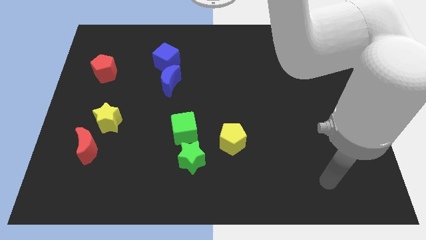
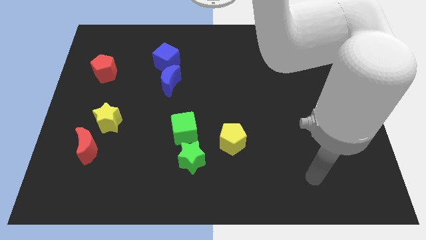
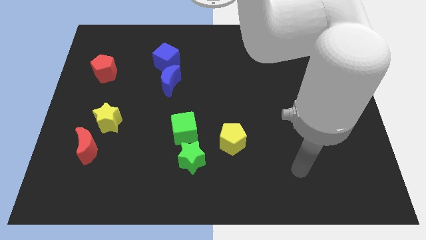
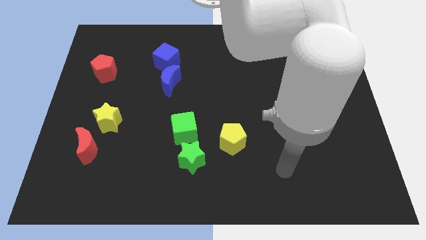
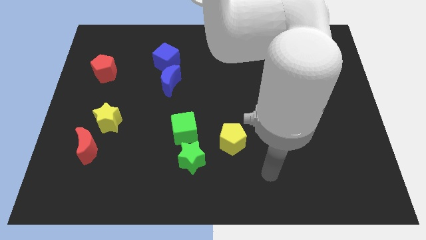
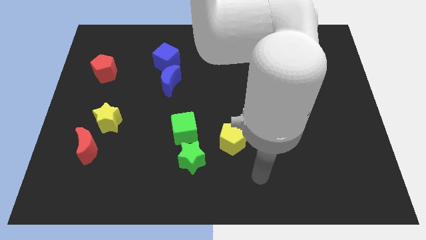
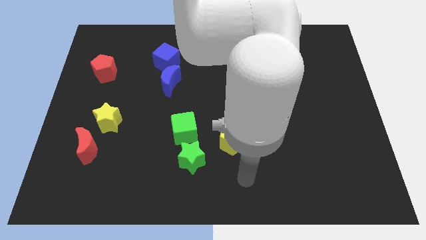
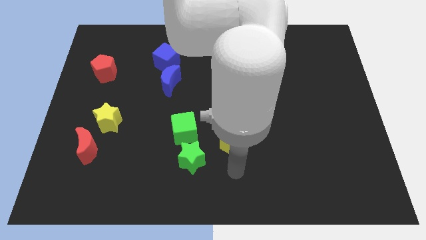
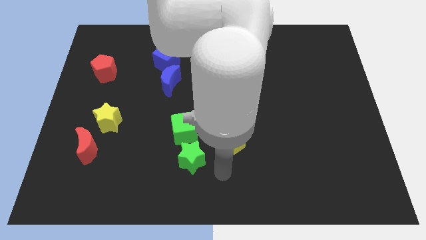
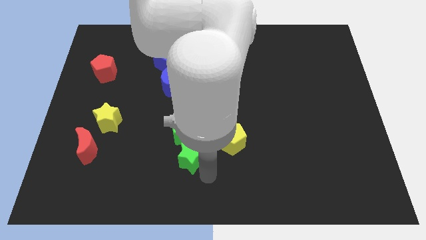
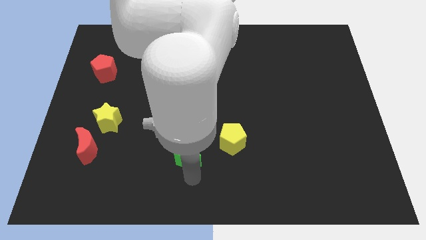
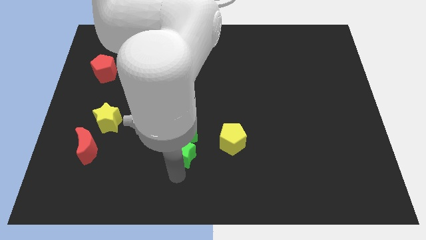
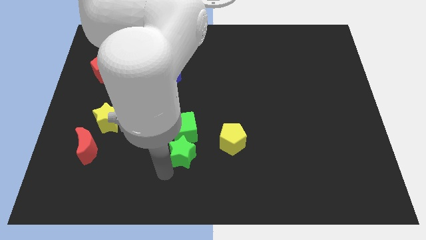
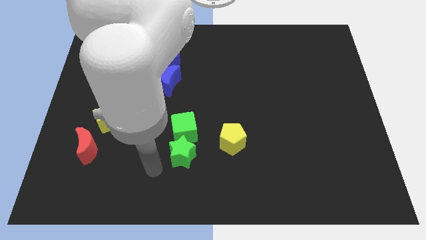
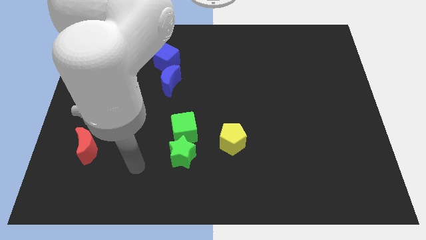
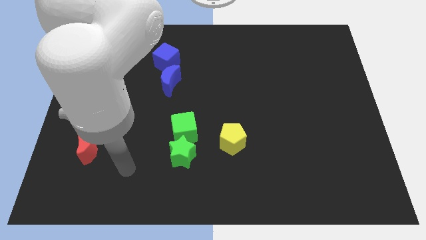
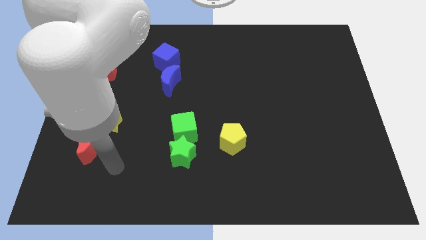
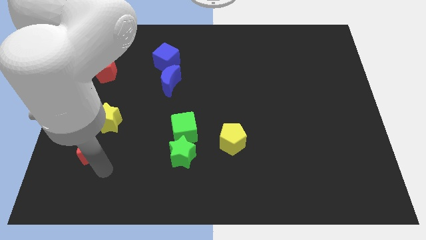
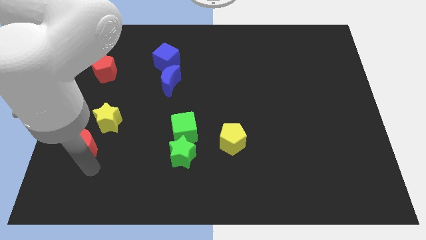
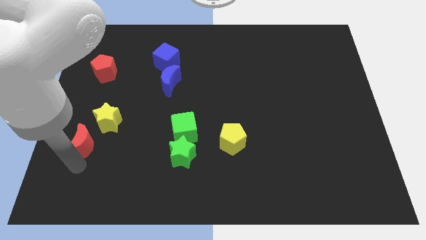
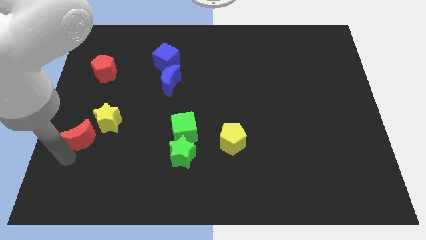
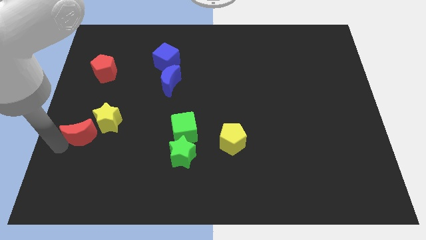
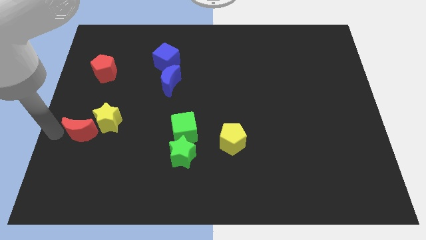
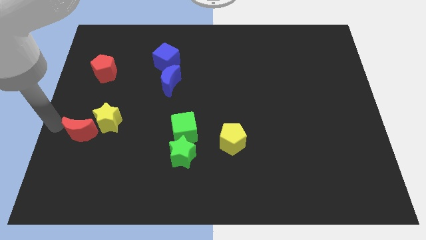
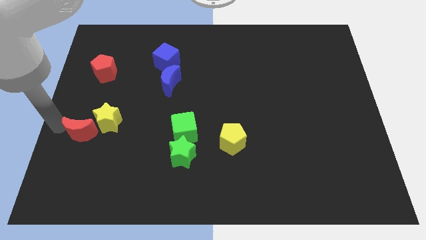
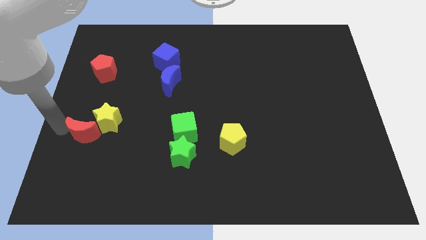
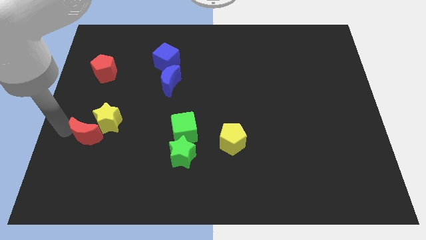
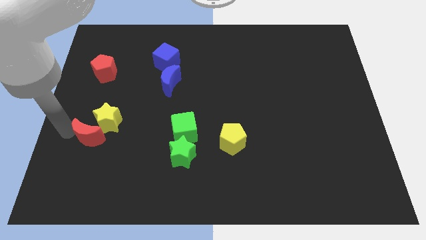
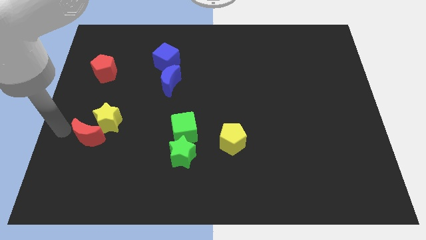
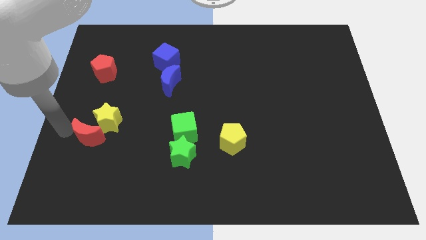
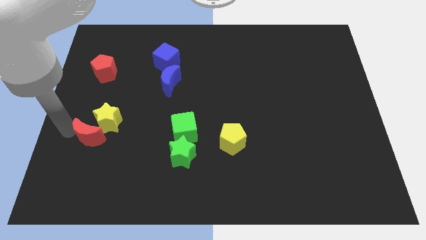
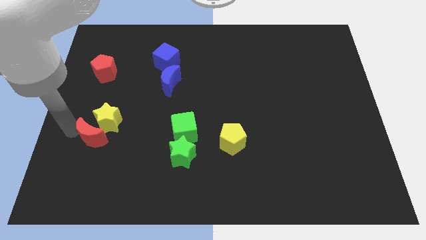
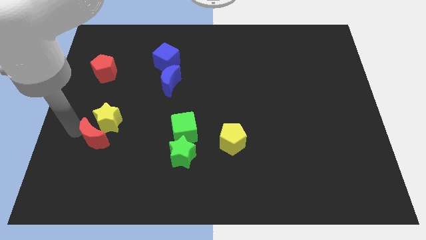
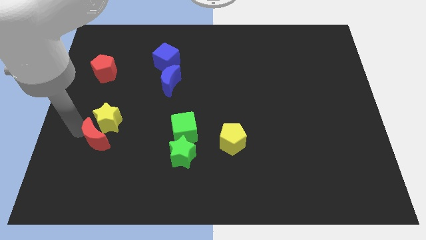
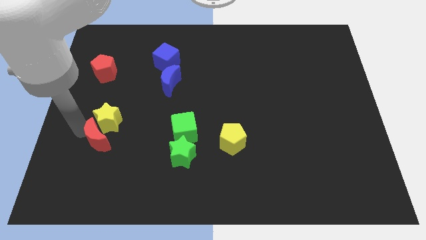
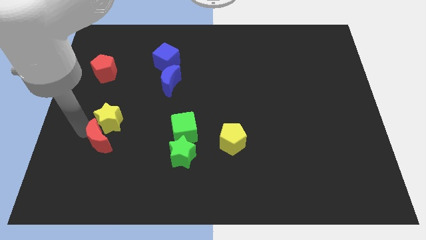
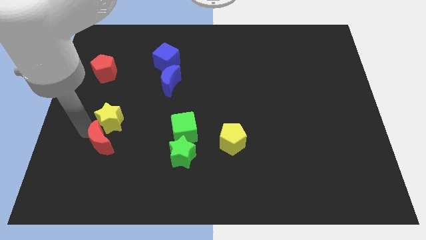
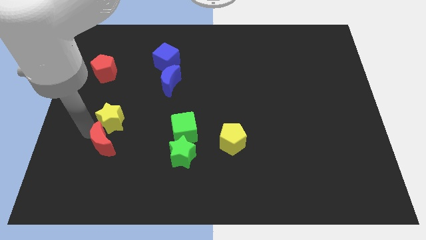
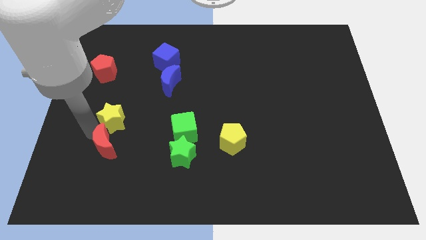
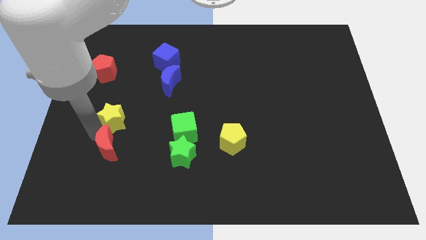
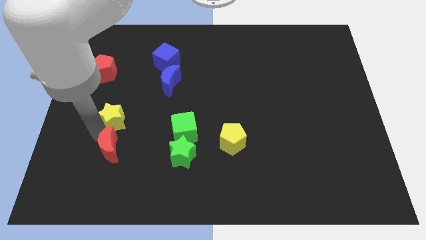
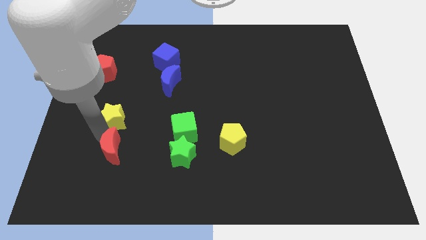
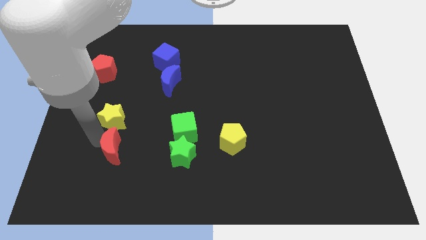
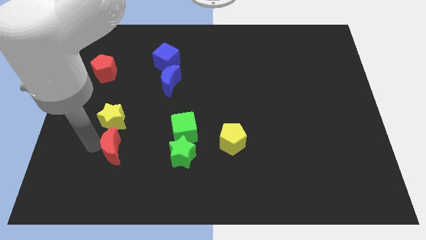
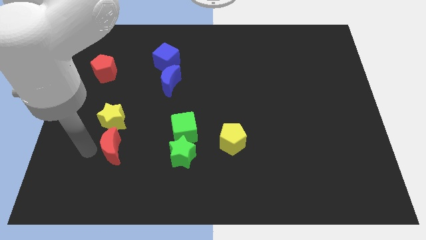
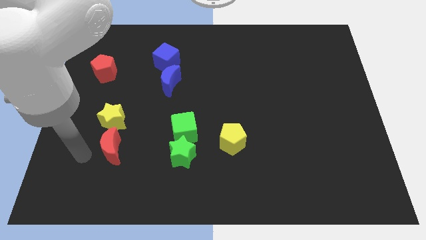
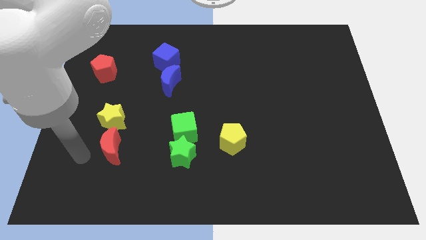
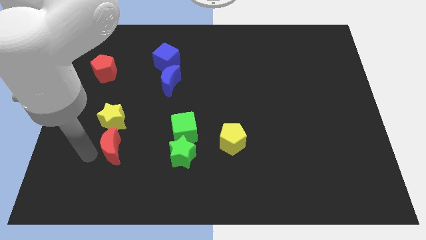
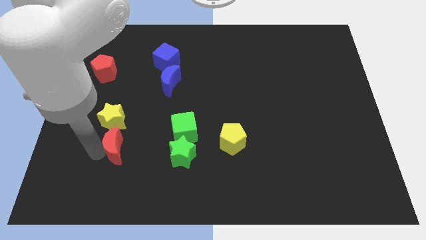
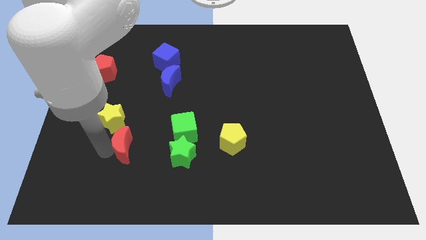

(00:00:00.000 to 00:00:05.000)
slide the red moon to the right somewhat

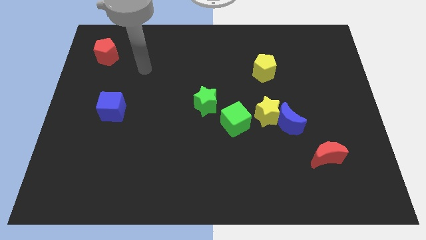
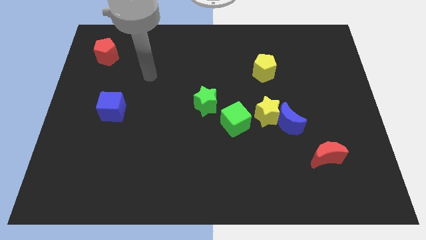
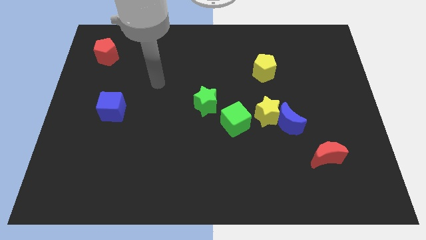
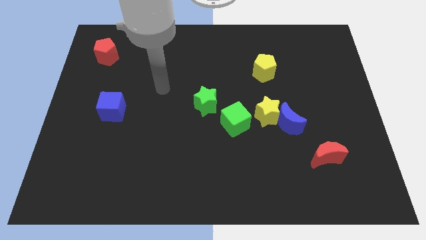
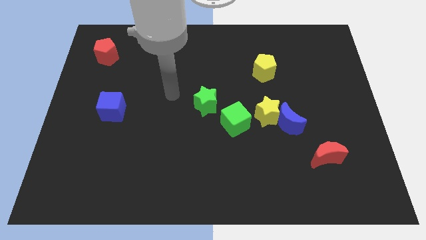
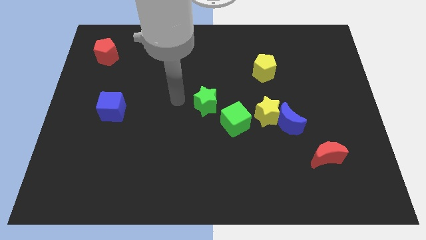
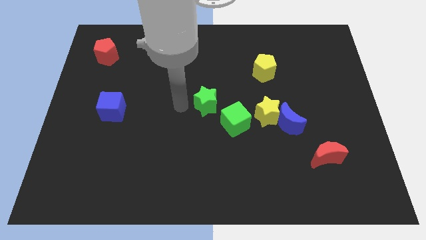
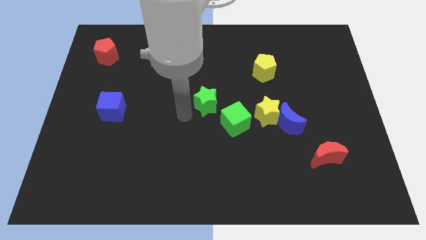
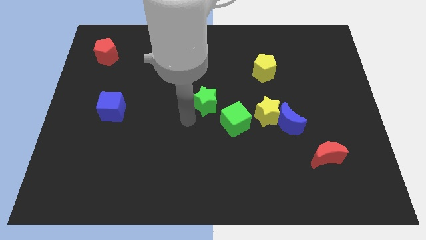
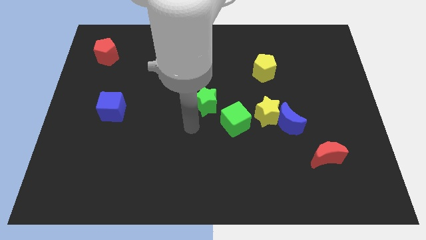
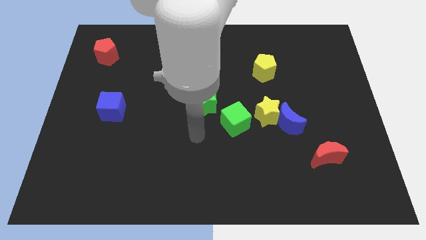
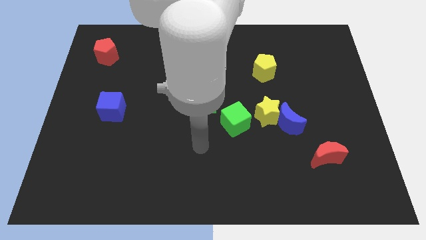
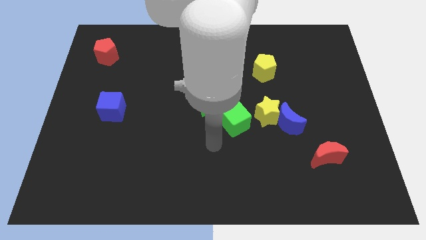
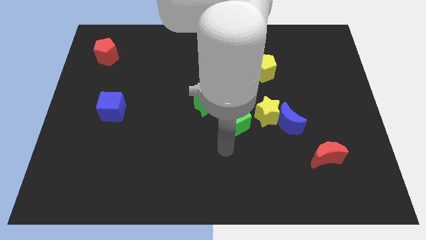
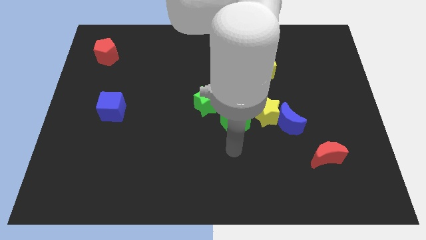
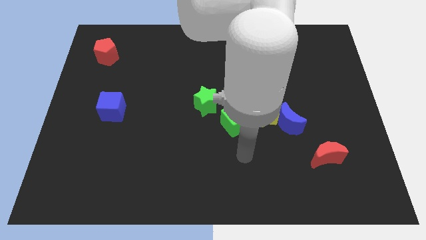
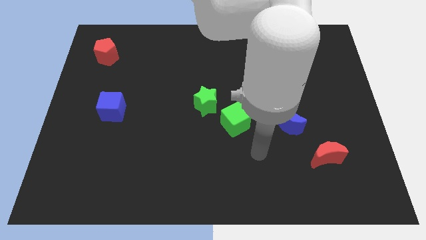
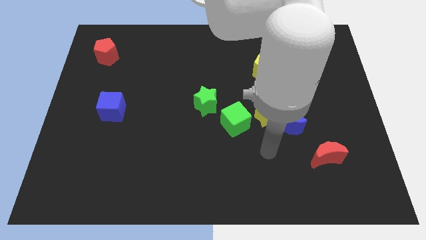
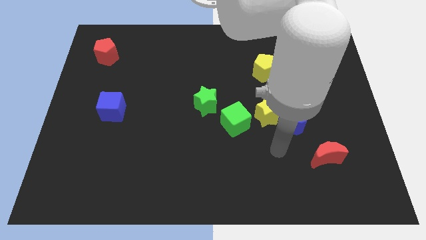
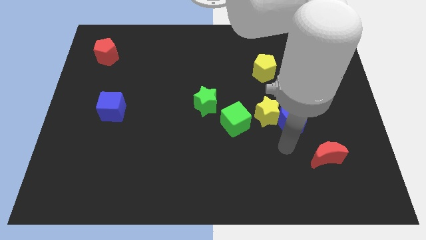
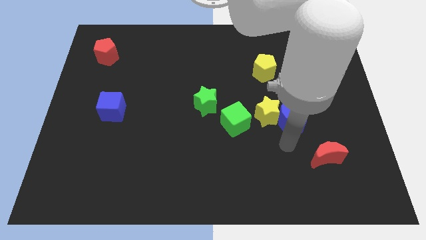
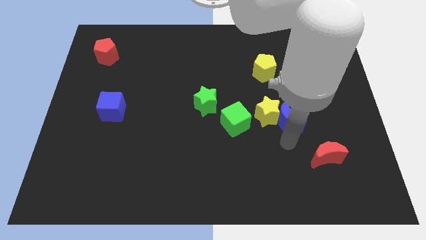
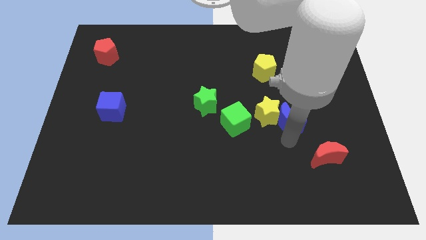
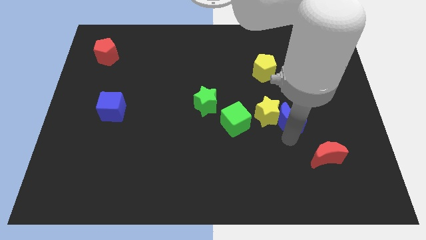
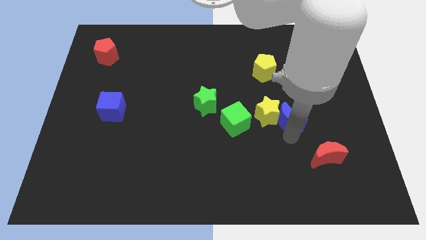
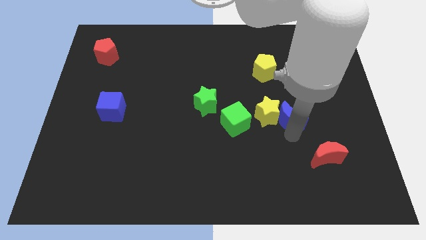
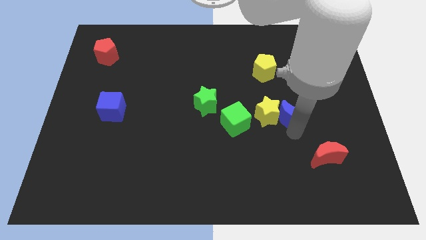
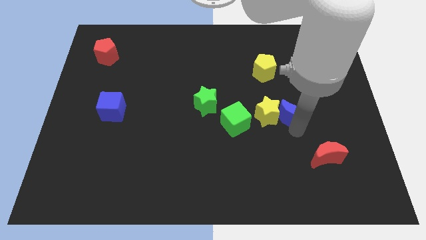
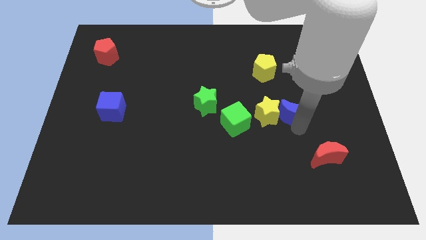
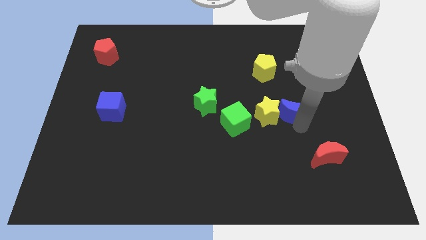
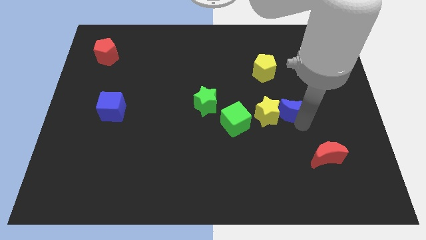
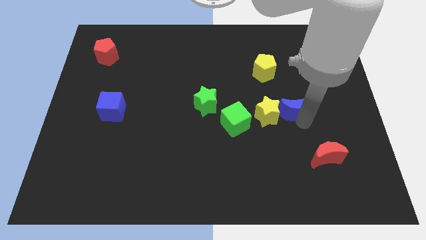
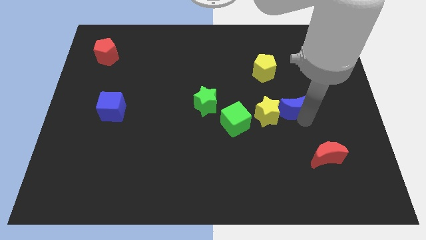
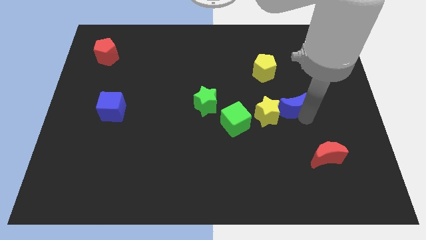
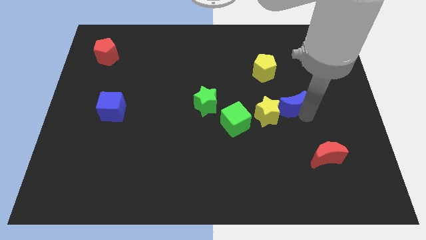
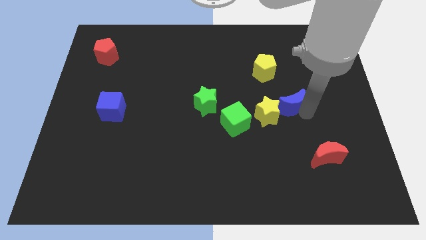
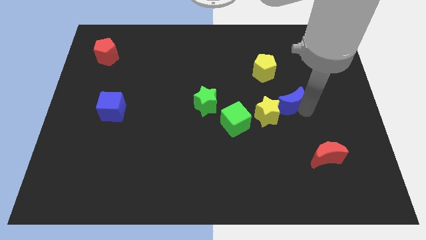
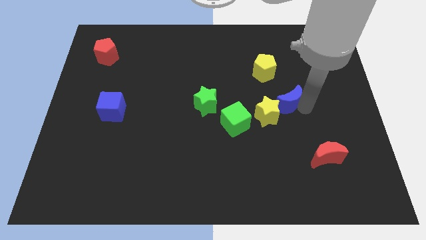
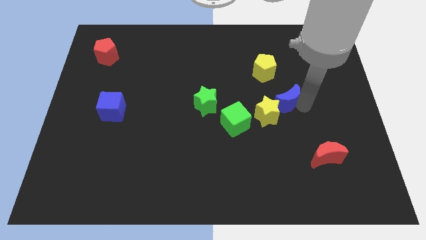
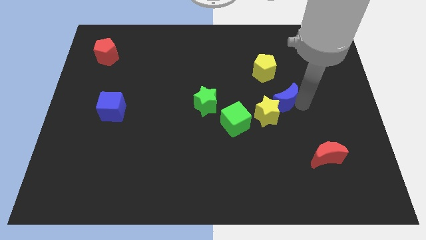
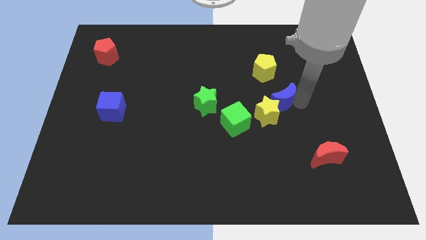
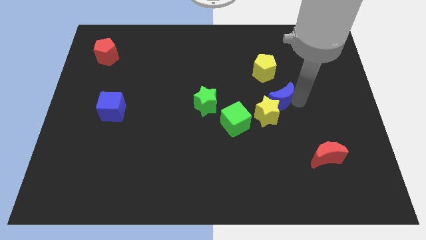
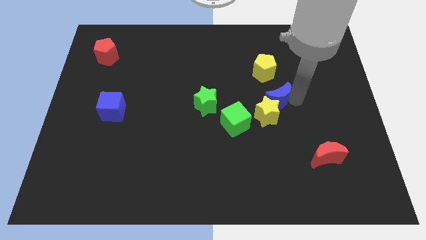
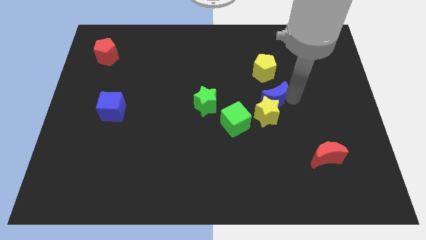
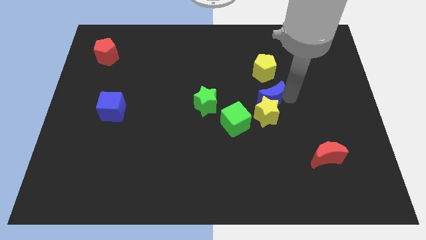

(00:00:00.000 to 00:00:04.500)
slide the blue moon diagonally up and left a bit
